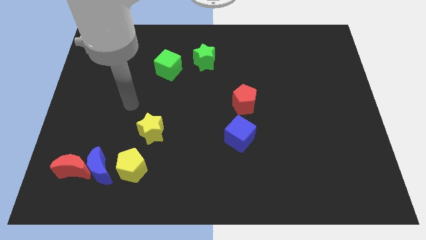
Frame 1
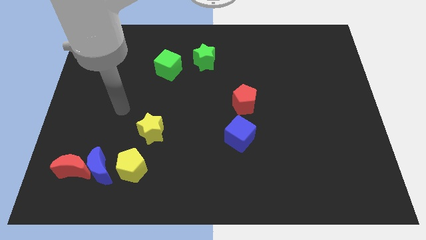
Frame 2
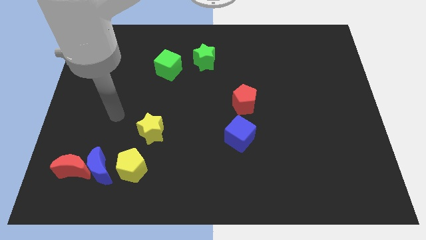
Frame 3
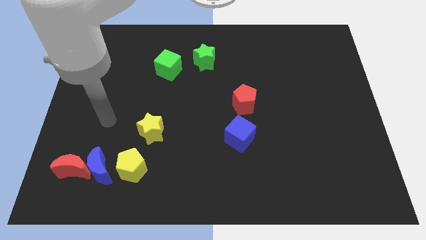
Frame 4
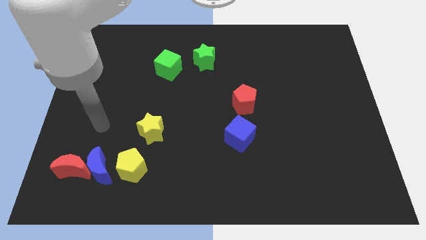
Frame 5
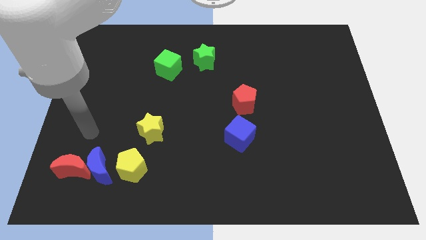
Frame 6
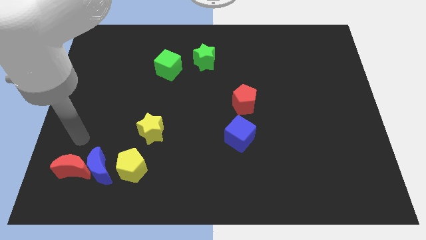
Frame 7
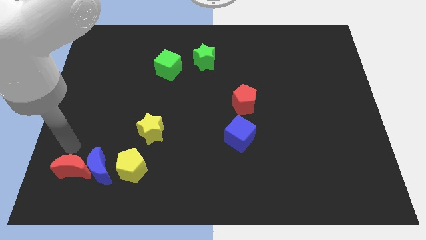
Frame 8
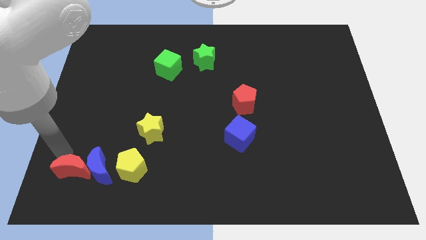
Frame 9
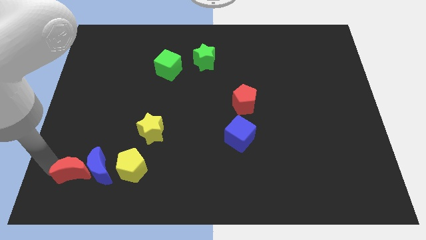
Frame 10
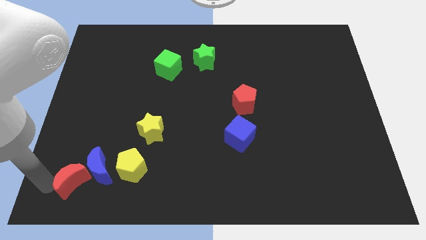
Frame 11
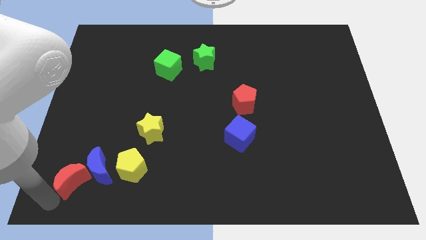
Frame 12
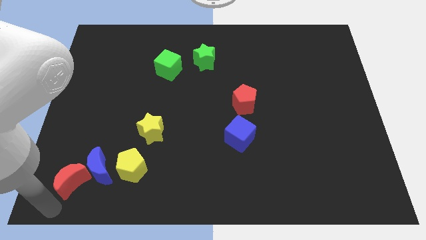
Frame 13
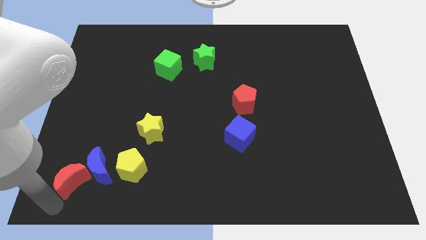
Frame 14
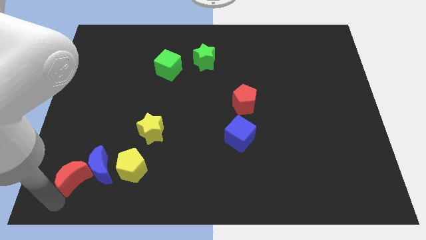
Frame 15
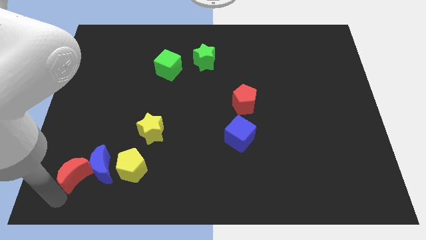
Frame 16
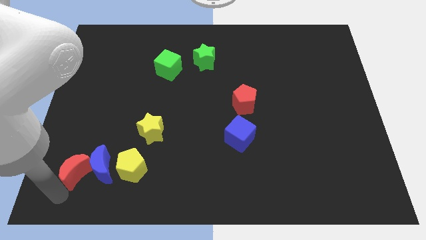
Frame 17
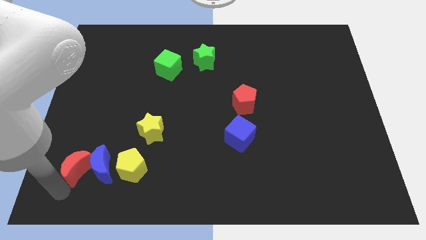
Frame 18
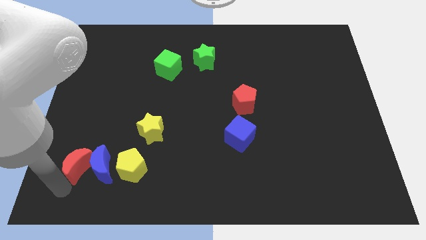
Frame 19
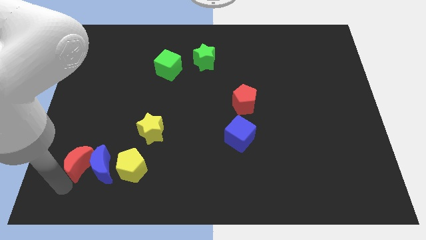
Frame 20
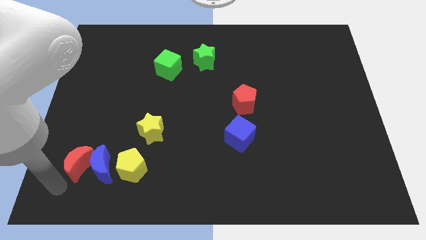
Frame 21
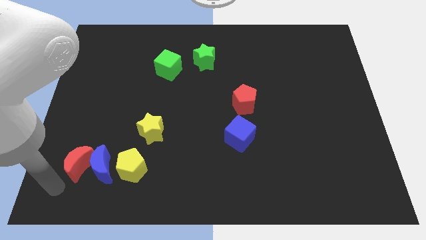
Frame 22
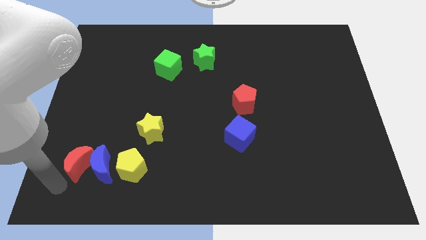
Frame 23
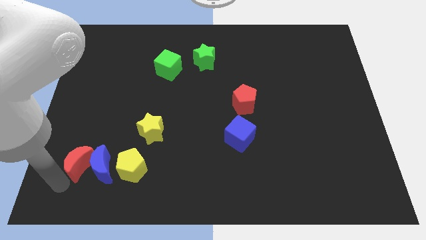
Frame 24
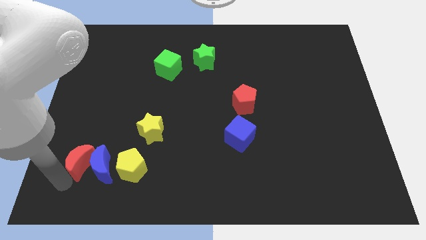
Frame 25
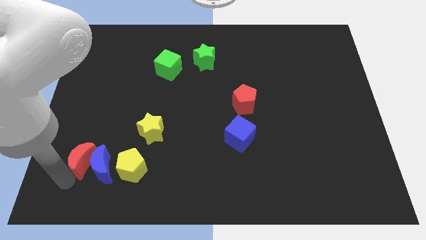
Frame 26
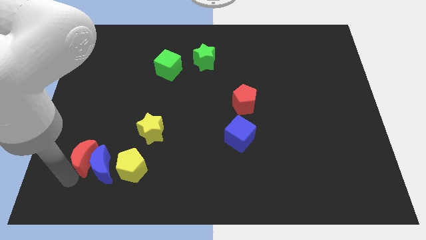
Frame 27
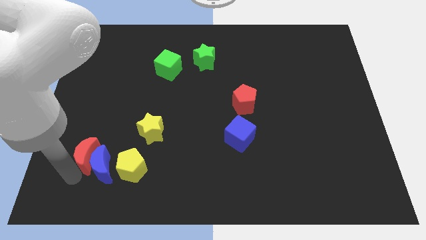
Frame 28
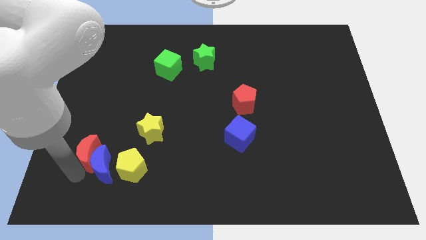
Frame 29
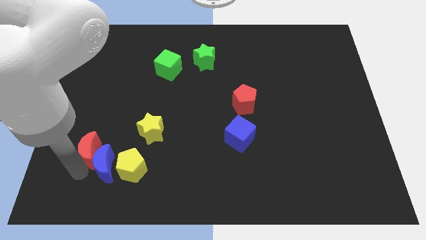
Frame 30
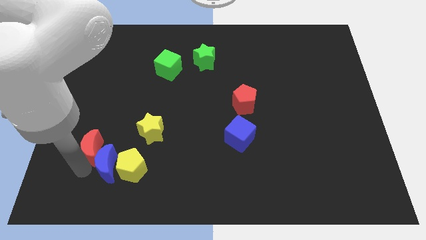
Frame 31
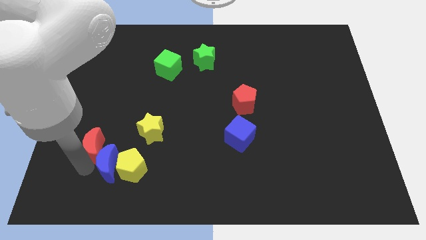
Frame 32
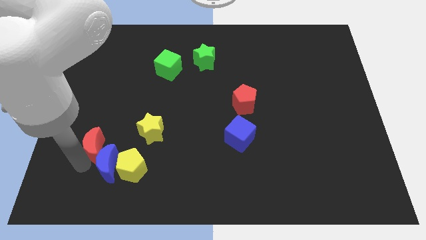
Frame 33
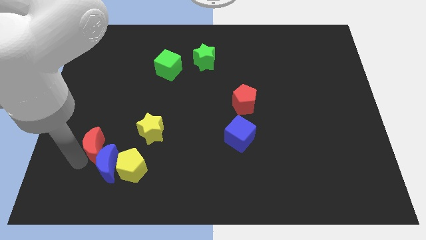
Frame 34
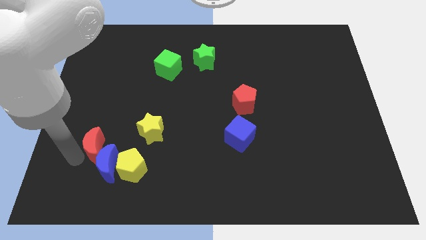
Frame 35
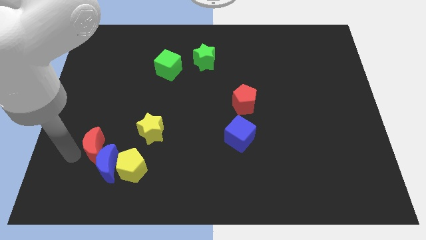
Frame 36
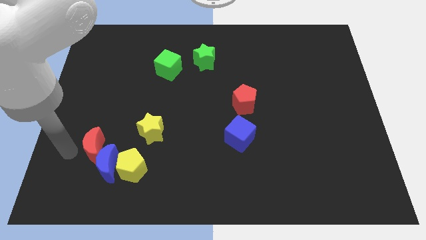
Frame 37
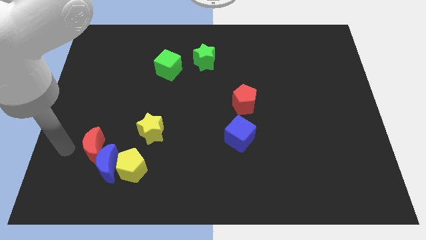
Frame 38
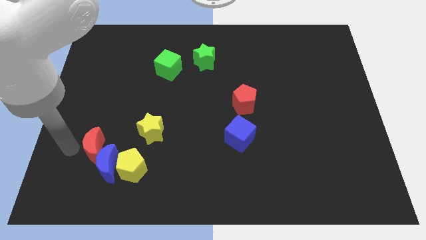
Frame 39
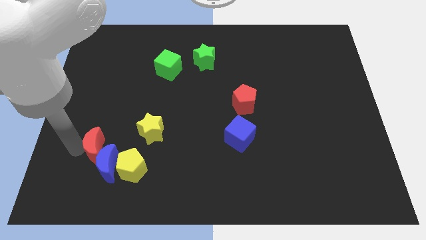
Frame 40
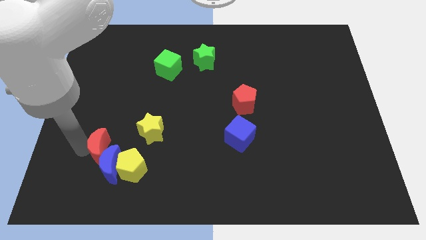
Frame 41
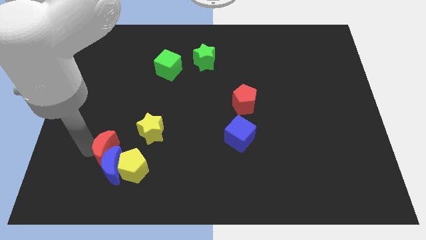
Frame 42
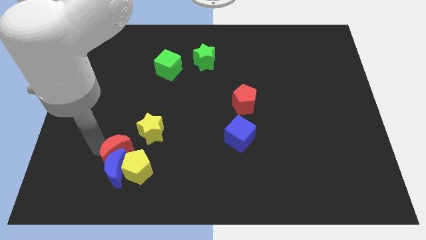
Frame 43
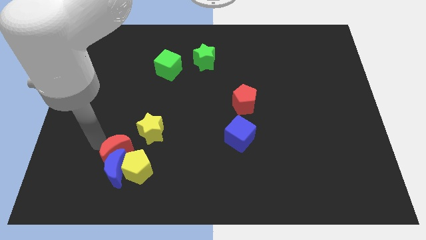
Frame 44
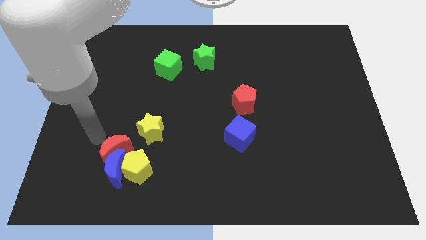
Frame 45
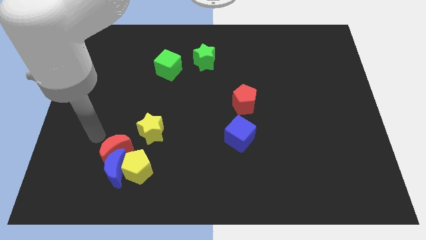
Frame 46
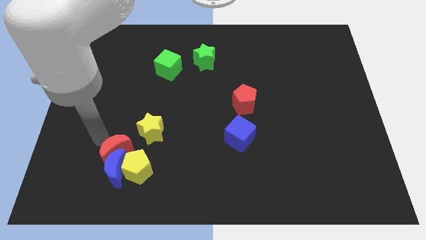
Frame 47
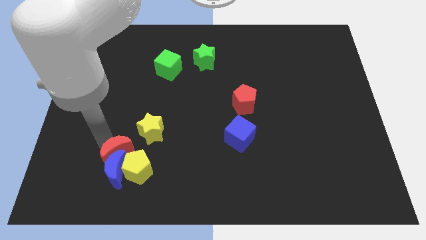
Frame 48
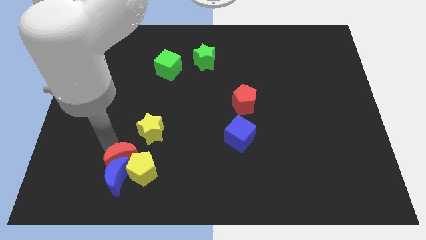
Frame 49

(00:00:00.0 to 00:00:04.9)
push the red moon next to the yellow pentagon

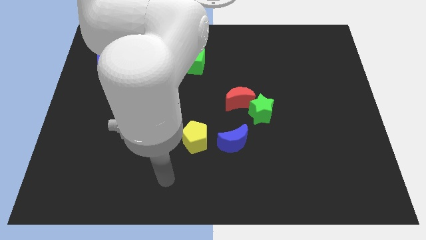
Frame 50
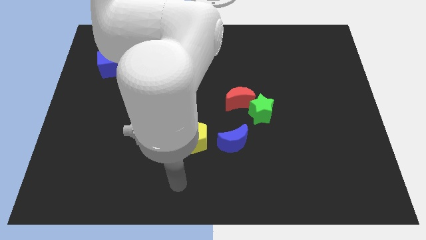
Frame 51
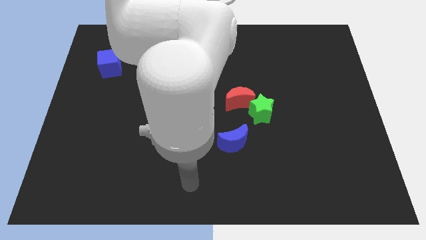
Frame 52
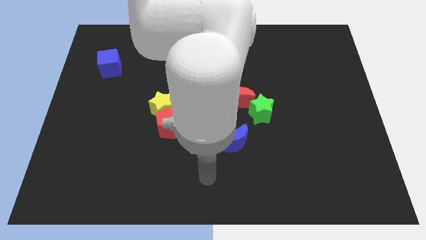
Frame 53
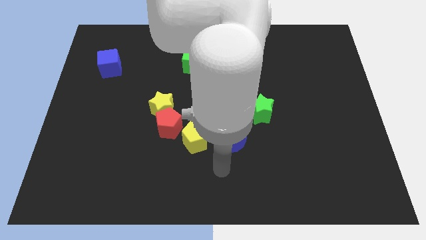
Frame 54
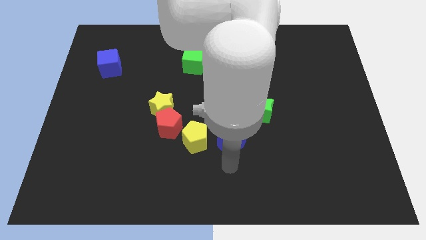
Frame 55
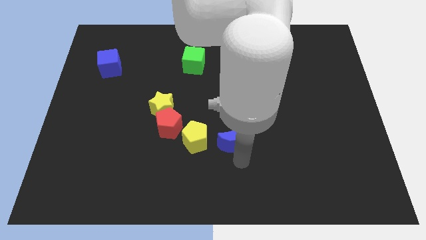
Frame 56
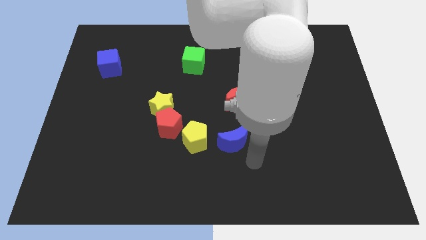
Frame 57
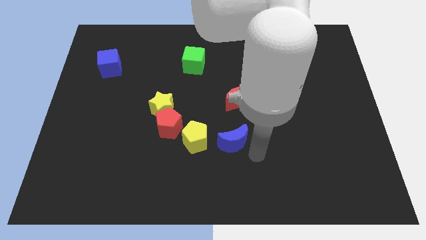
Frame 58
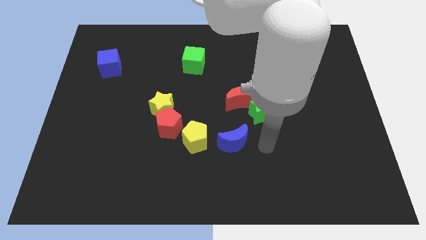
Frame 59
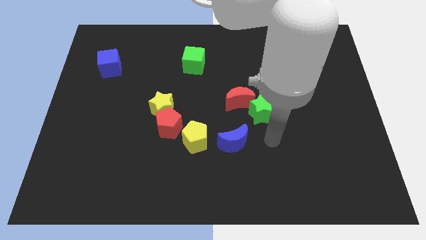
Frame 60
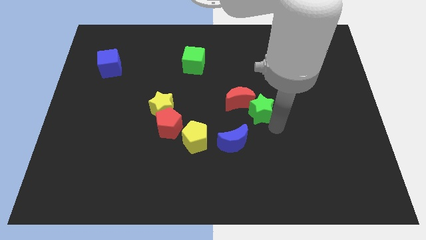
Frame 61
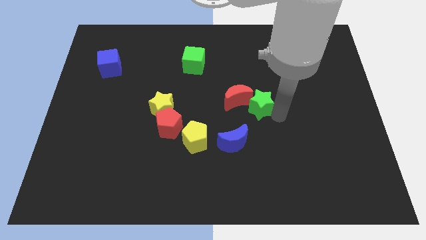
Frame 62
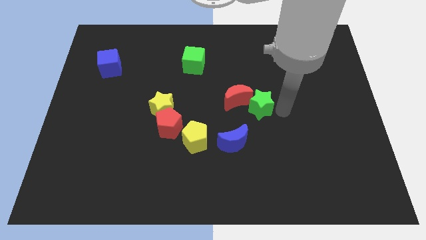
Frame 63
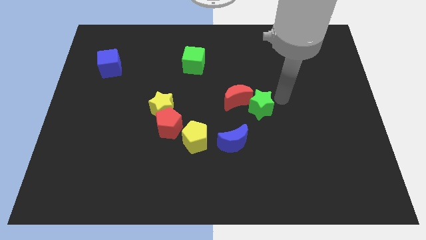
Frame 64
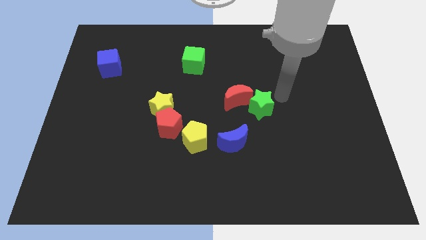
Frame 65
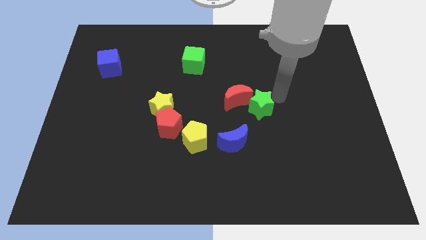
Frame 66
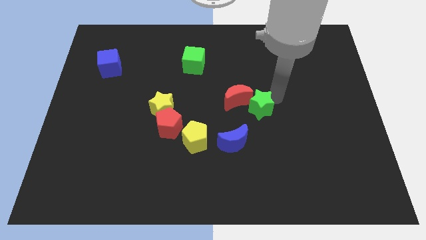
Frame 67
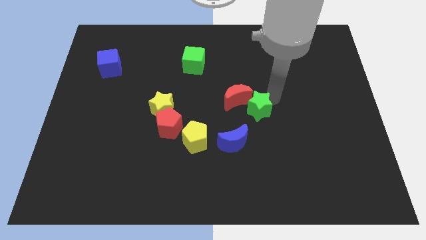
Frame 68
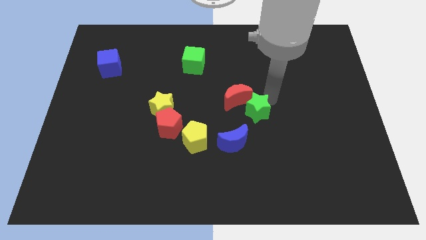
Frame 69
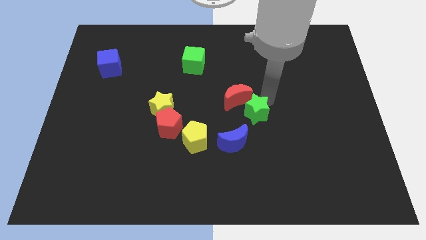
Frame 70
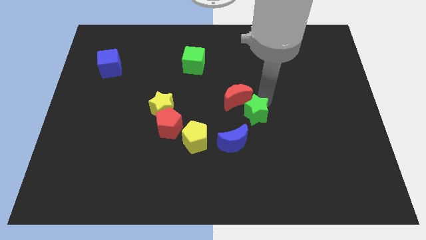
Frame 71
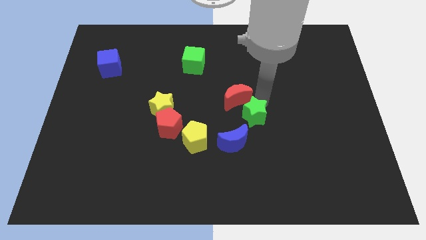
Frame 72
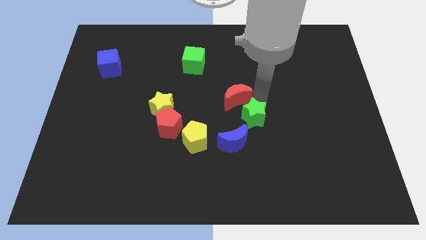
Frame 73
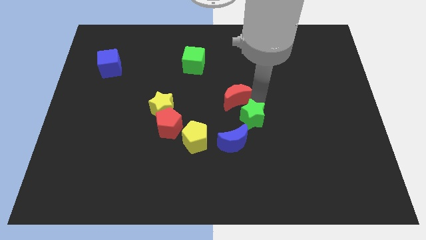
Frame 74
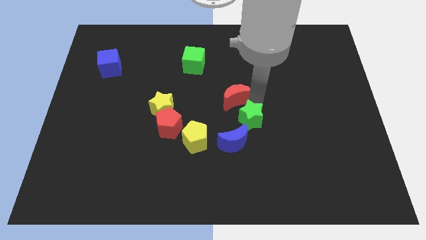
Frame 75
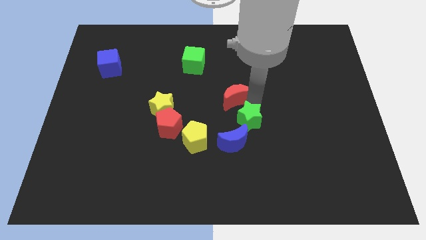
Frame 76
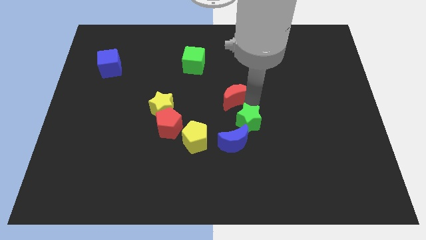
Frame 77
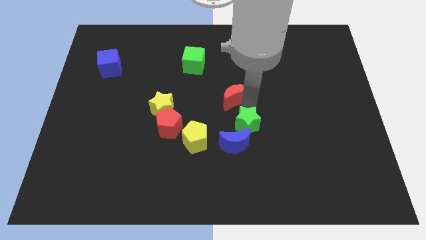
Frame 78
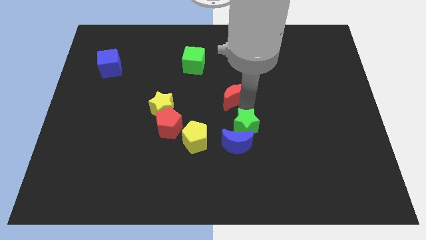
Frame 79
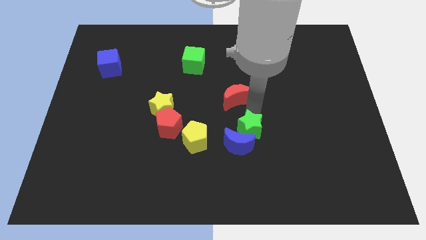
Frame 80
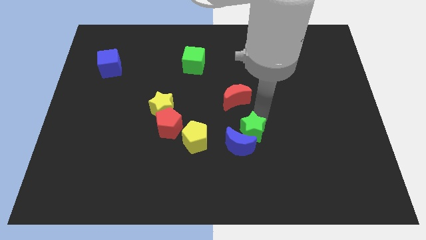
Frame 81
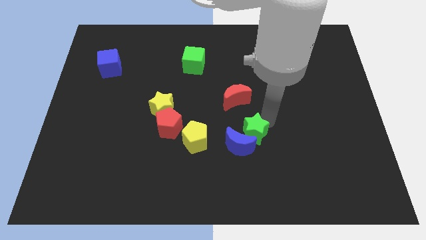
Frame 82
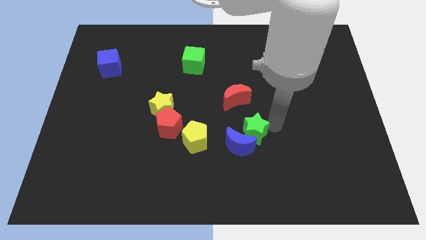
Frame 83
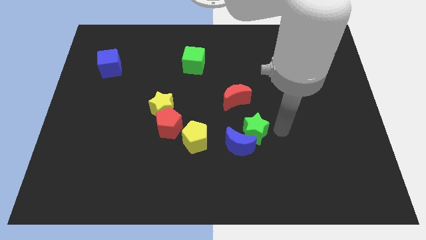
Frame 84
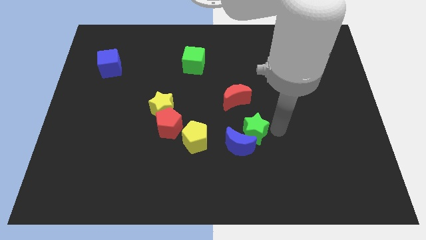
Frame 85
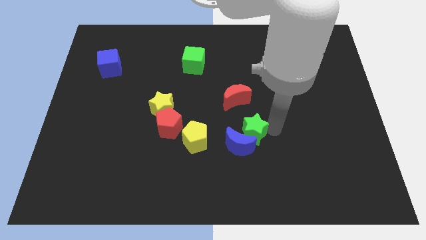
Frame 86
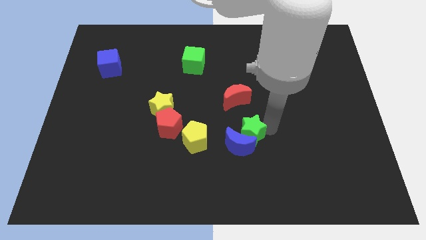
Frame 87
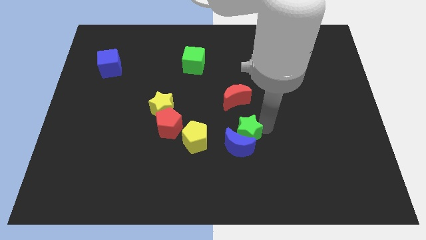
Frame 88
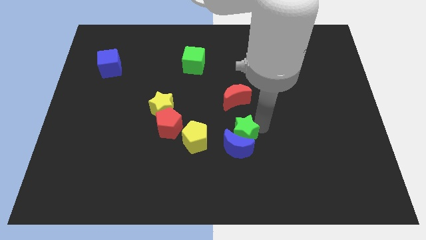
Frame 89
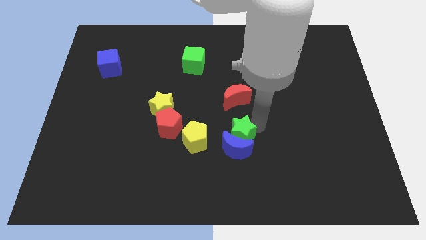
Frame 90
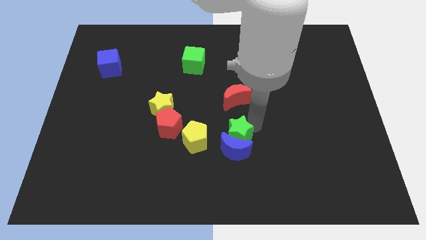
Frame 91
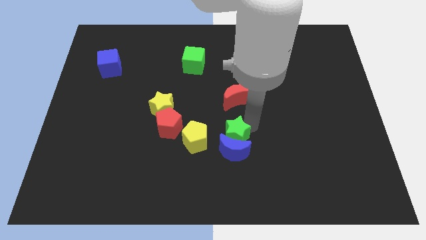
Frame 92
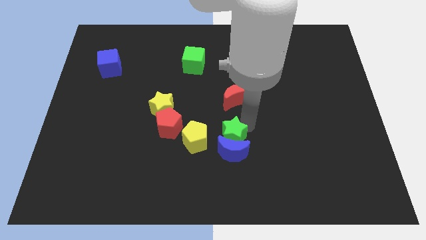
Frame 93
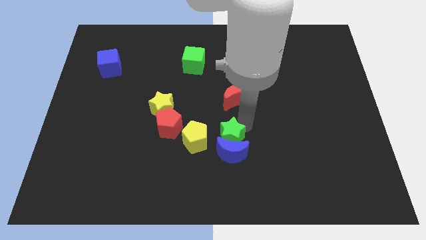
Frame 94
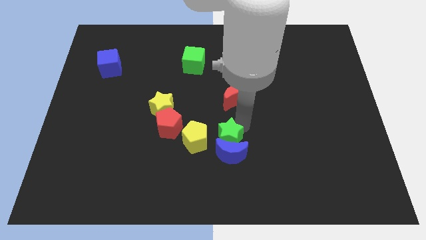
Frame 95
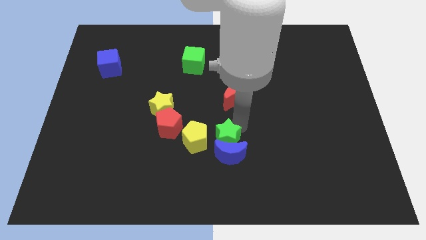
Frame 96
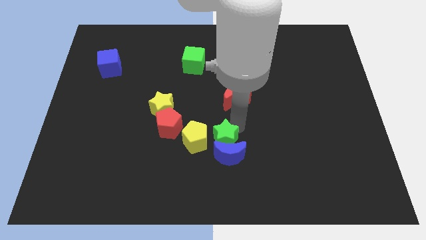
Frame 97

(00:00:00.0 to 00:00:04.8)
move the green star next to the yellow pentagon
